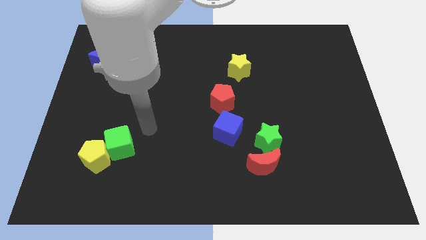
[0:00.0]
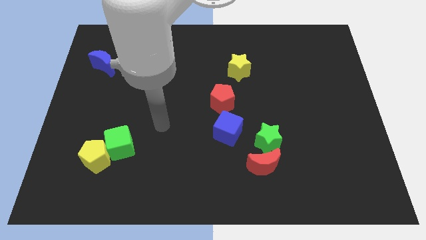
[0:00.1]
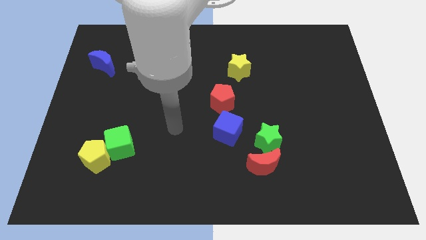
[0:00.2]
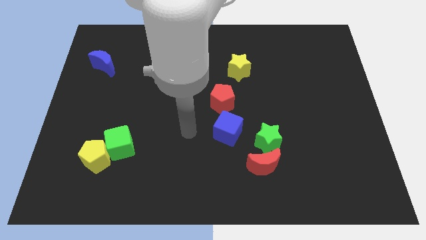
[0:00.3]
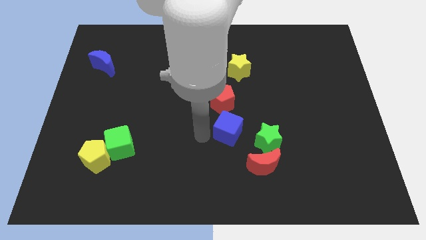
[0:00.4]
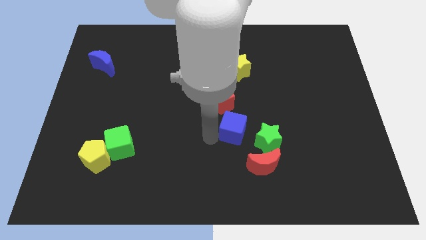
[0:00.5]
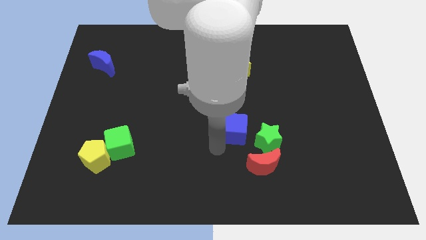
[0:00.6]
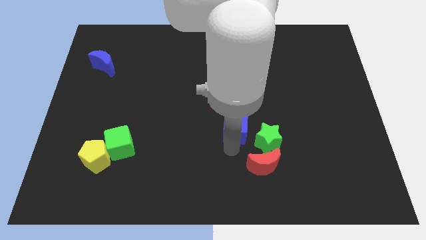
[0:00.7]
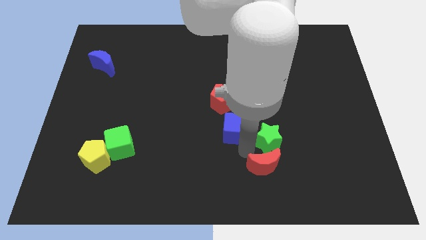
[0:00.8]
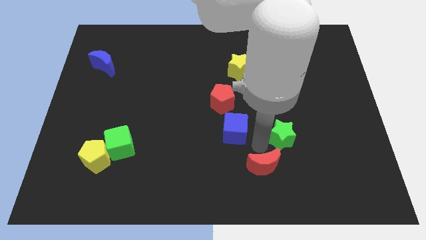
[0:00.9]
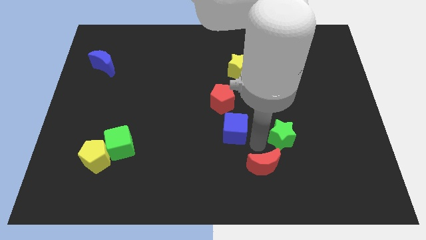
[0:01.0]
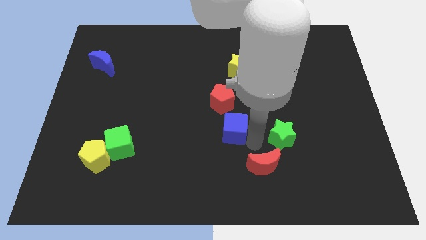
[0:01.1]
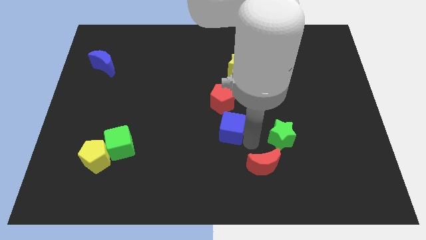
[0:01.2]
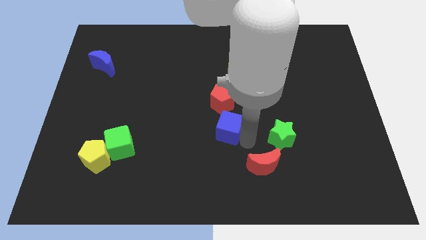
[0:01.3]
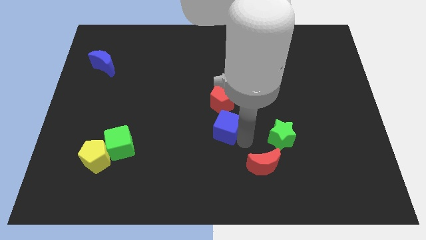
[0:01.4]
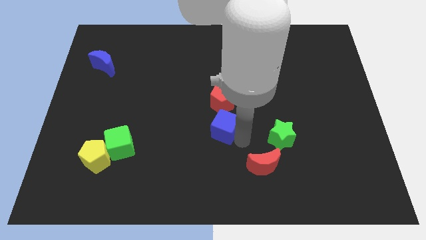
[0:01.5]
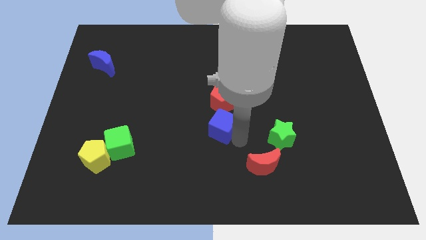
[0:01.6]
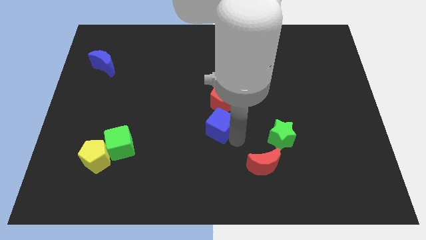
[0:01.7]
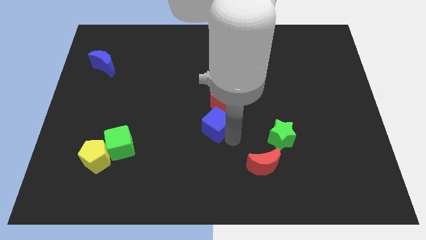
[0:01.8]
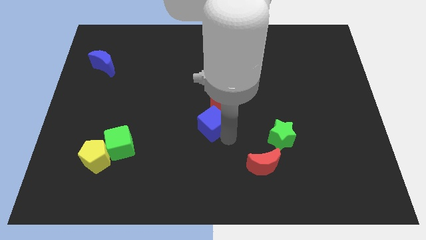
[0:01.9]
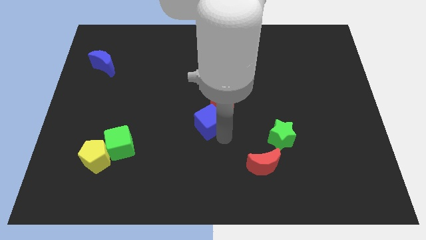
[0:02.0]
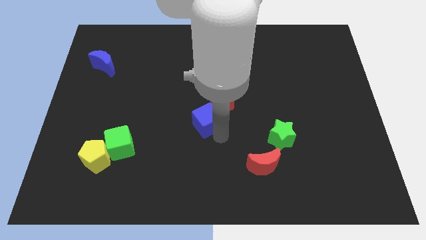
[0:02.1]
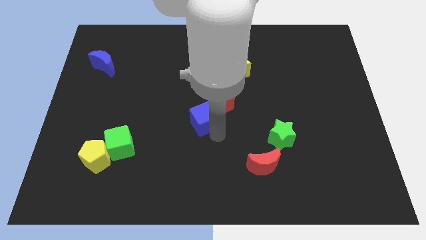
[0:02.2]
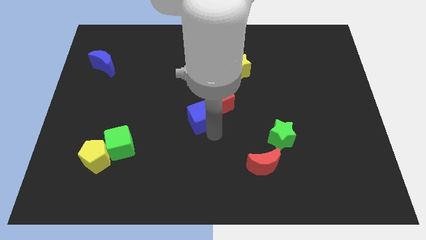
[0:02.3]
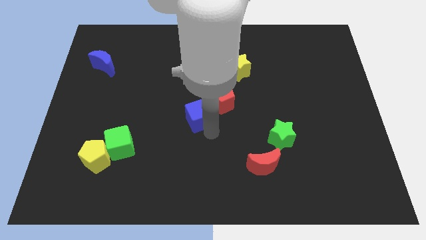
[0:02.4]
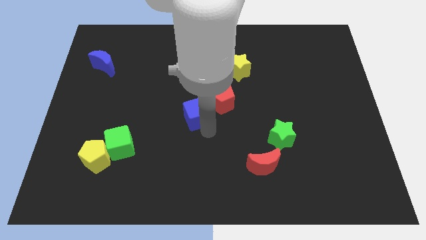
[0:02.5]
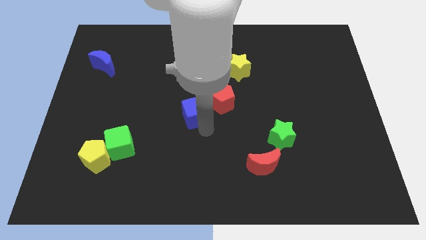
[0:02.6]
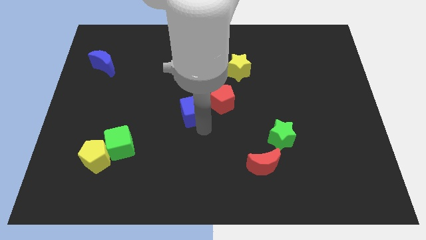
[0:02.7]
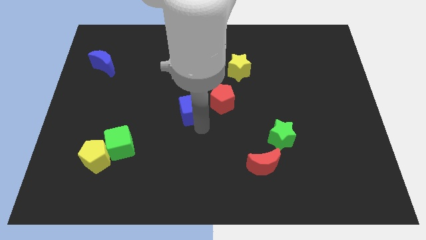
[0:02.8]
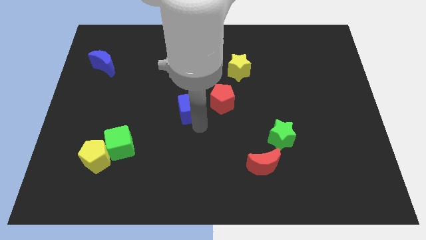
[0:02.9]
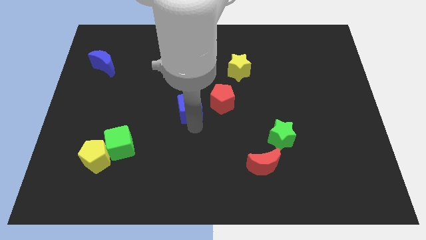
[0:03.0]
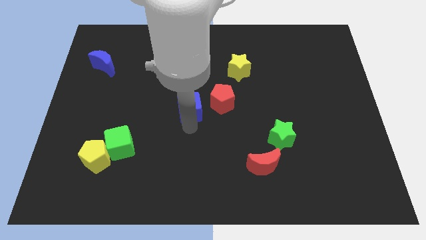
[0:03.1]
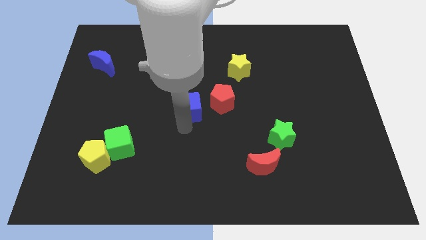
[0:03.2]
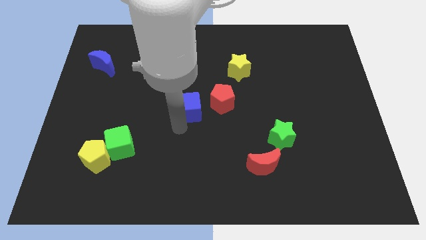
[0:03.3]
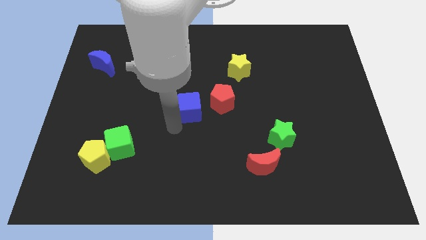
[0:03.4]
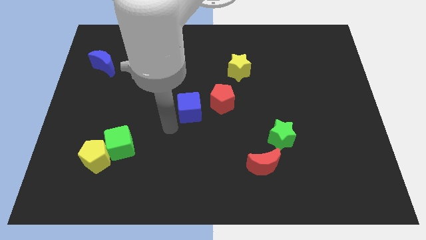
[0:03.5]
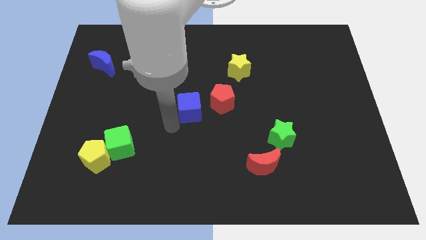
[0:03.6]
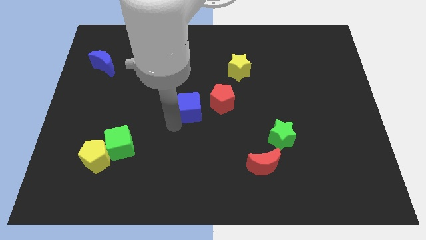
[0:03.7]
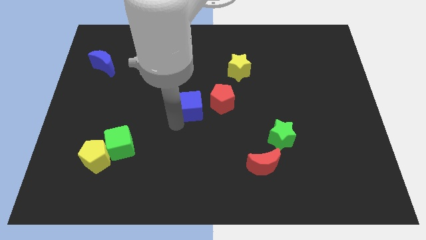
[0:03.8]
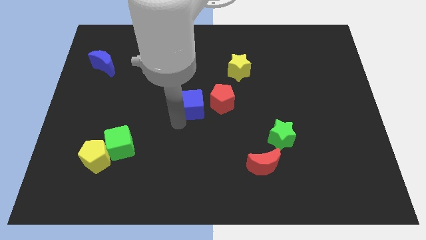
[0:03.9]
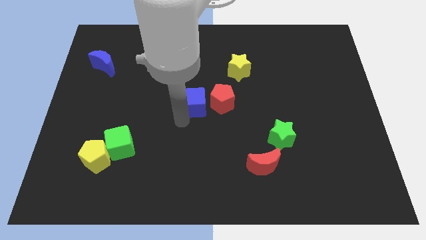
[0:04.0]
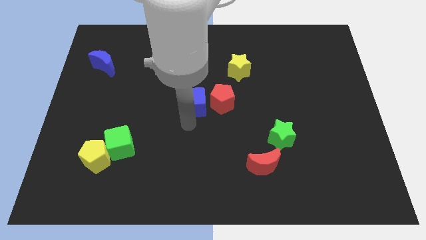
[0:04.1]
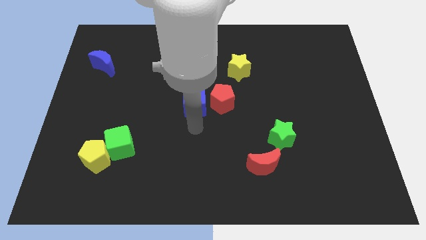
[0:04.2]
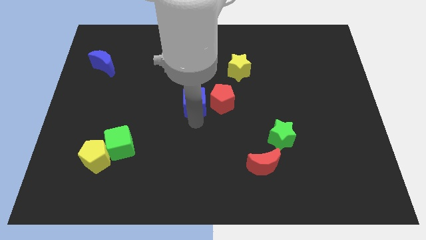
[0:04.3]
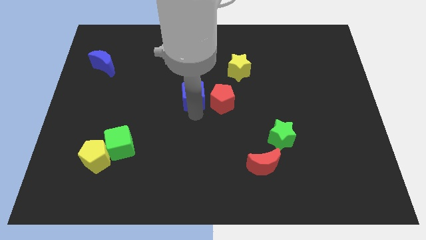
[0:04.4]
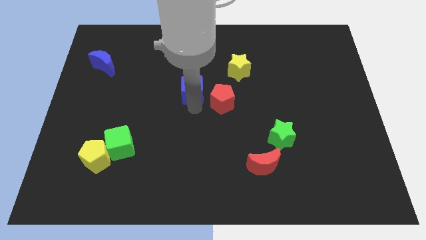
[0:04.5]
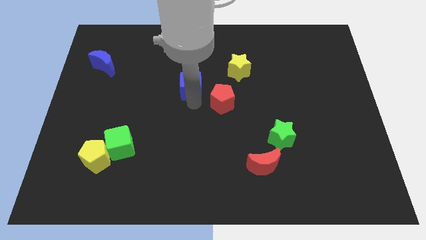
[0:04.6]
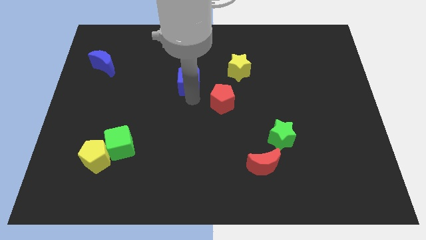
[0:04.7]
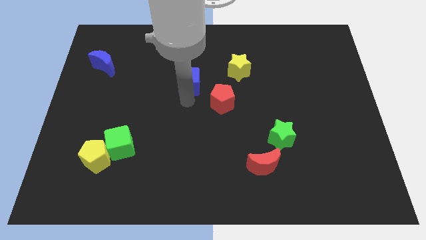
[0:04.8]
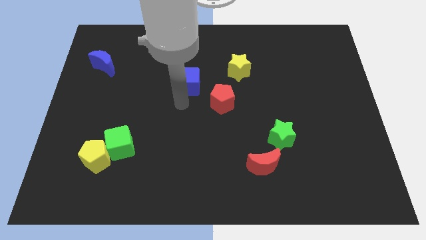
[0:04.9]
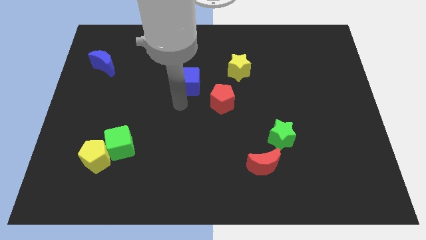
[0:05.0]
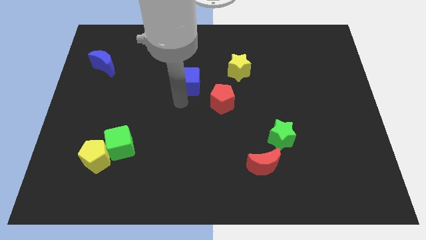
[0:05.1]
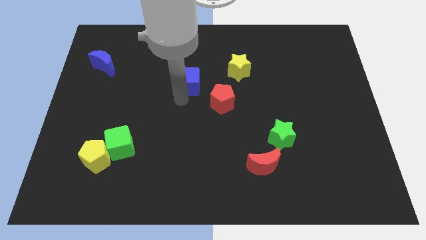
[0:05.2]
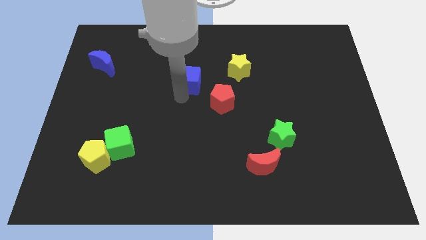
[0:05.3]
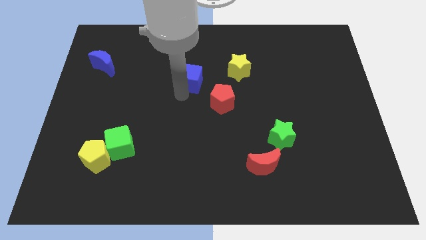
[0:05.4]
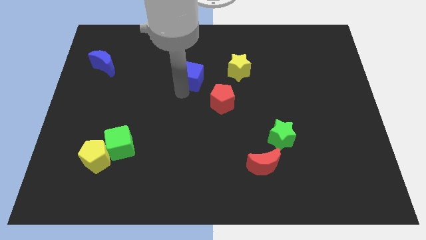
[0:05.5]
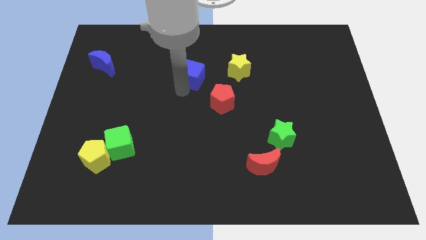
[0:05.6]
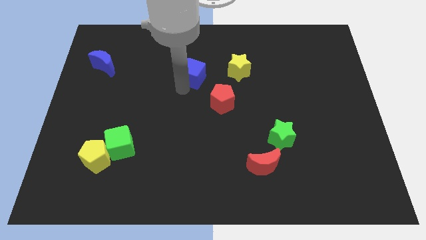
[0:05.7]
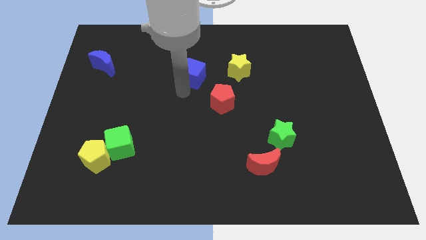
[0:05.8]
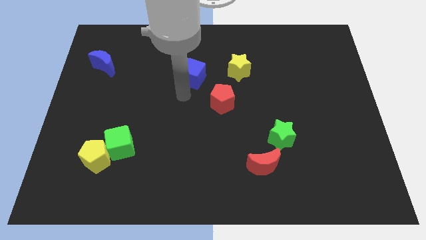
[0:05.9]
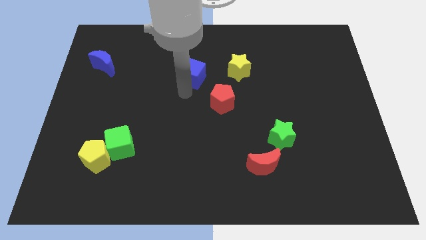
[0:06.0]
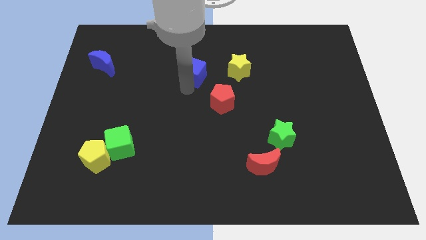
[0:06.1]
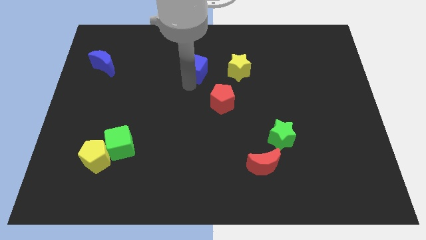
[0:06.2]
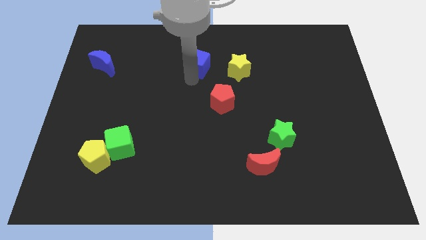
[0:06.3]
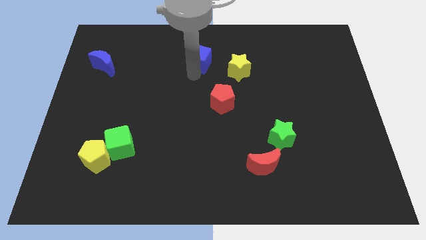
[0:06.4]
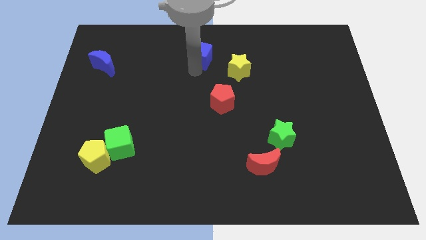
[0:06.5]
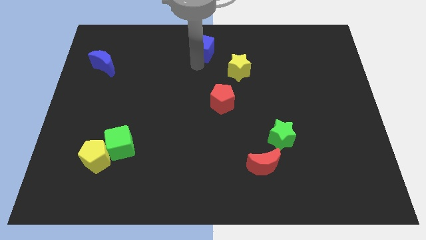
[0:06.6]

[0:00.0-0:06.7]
slide the blue cube to the top
